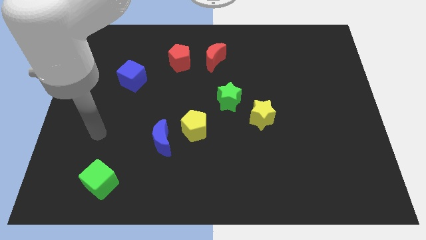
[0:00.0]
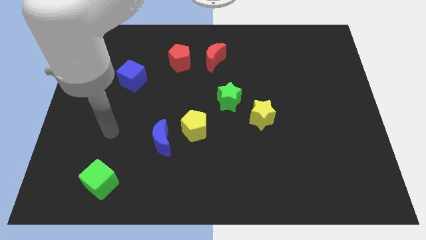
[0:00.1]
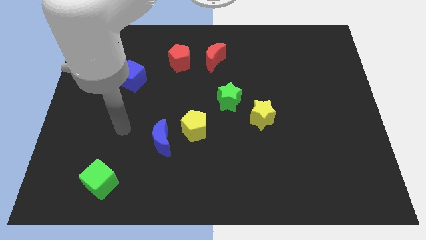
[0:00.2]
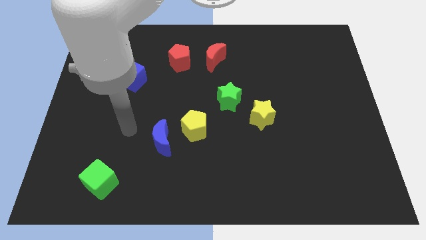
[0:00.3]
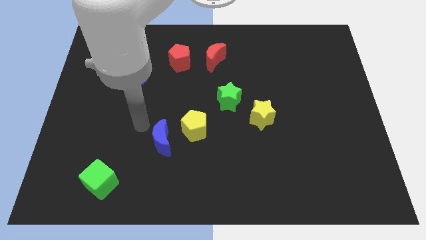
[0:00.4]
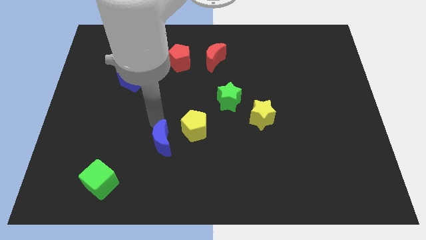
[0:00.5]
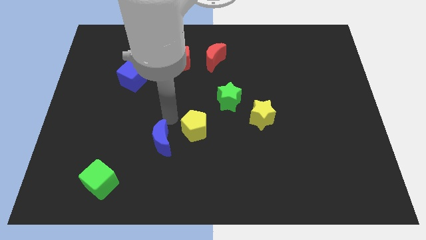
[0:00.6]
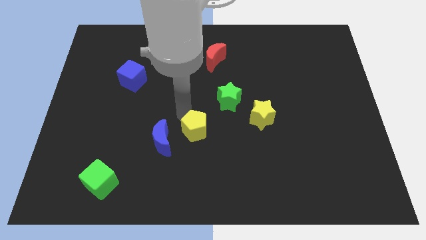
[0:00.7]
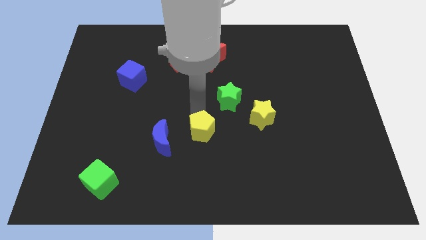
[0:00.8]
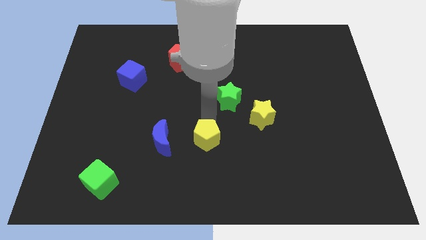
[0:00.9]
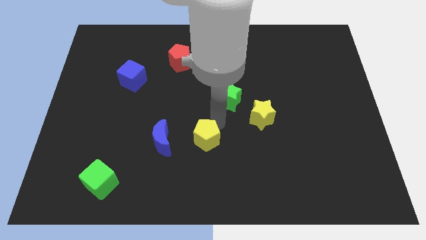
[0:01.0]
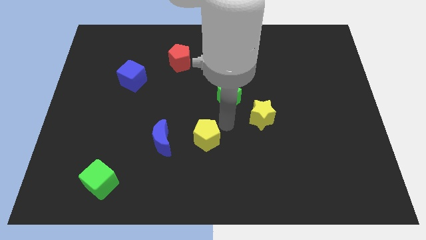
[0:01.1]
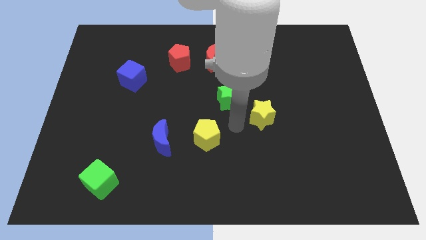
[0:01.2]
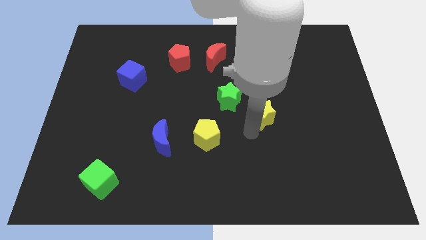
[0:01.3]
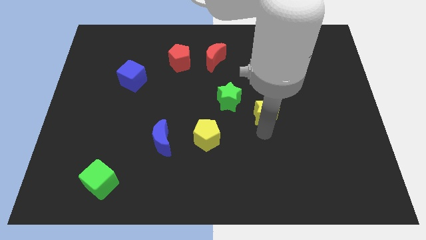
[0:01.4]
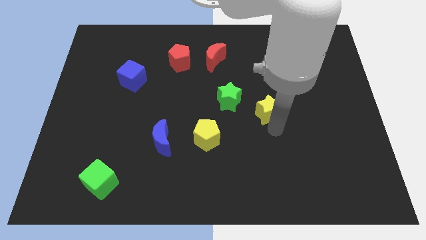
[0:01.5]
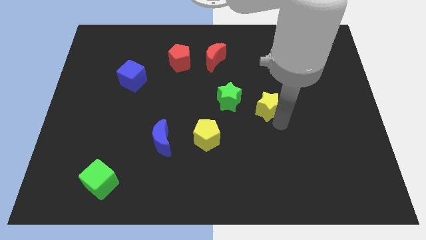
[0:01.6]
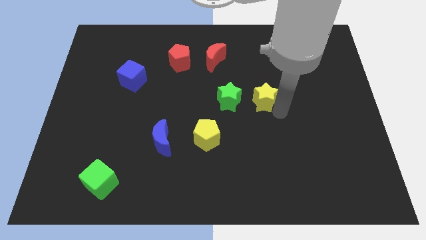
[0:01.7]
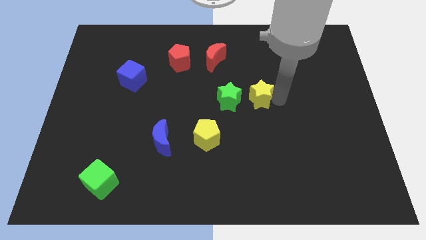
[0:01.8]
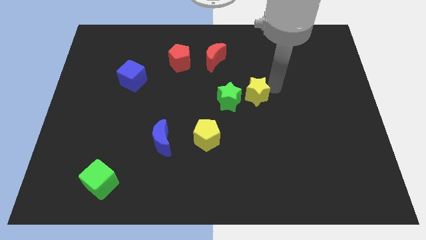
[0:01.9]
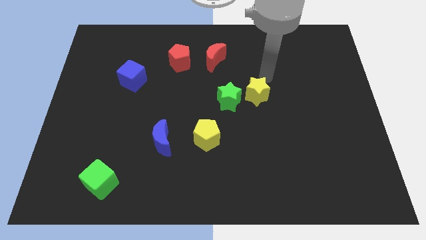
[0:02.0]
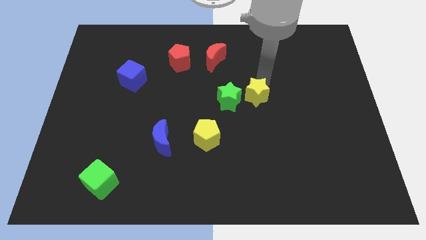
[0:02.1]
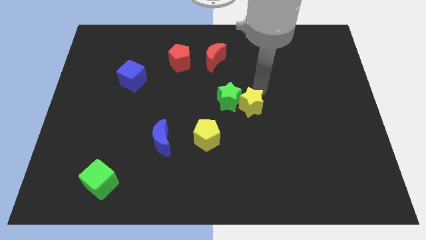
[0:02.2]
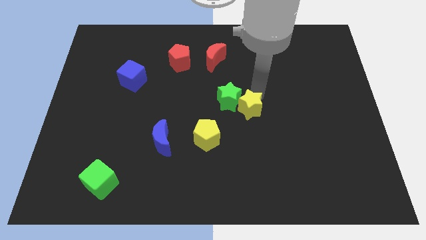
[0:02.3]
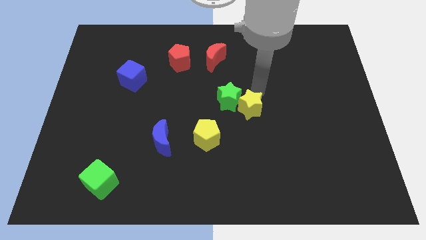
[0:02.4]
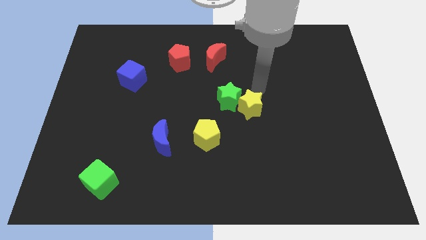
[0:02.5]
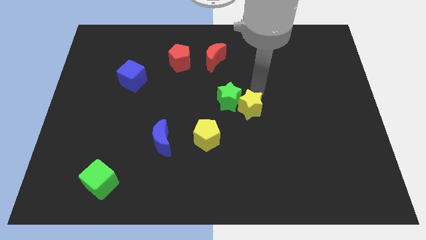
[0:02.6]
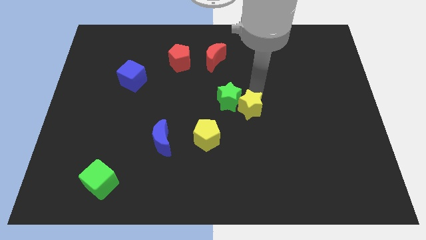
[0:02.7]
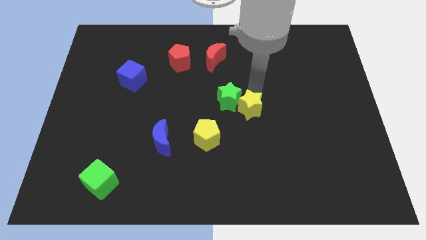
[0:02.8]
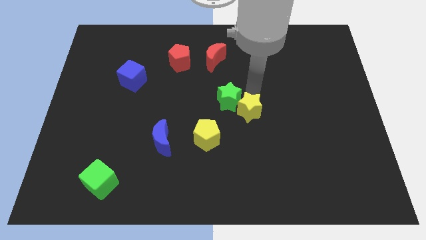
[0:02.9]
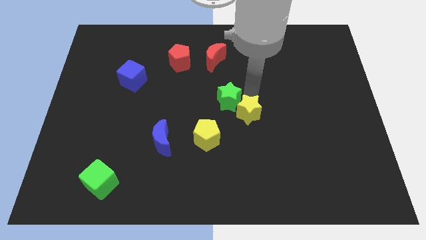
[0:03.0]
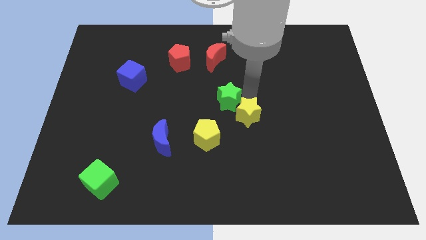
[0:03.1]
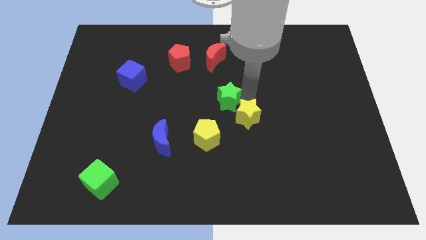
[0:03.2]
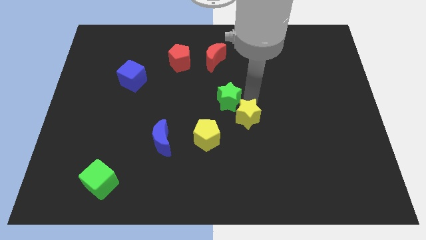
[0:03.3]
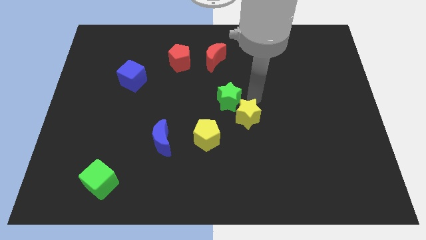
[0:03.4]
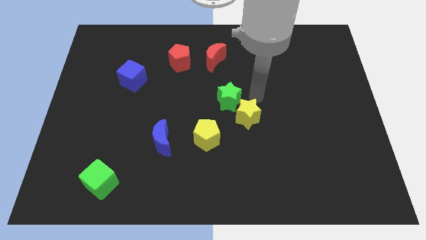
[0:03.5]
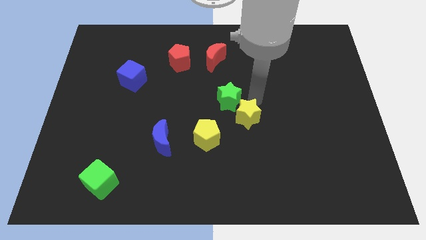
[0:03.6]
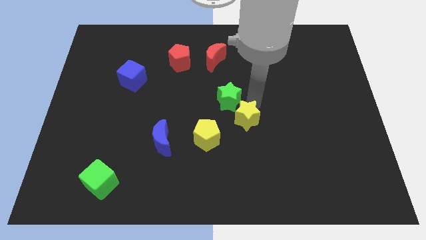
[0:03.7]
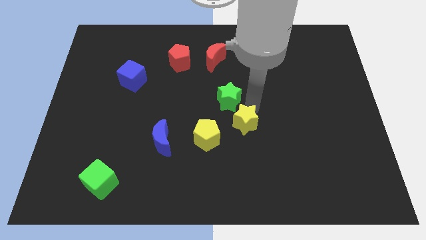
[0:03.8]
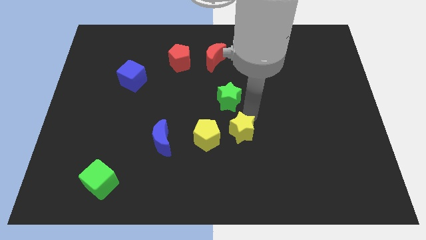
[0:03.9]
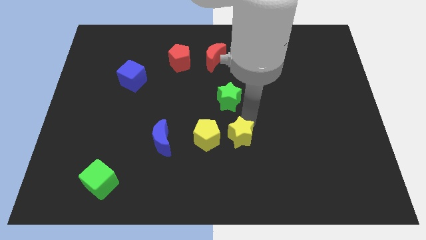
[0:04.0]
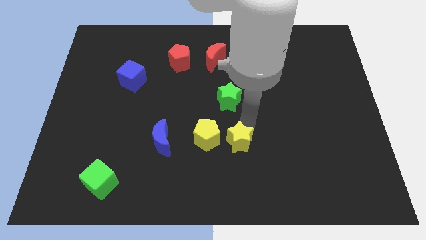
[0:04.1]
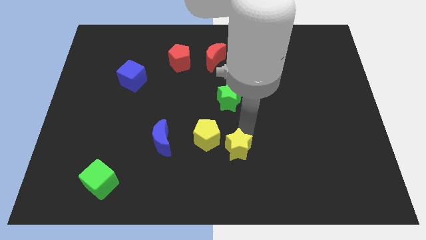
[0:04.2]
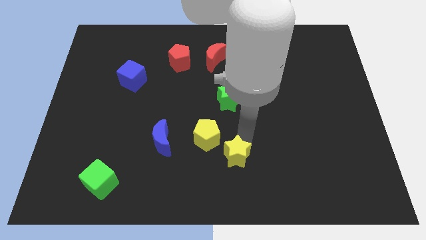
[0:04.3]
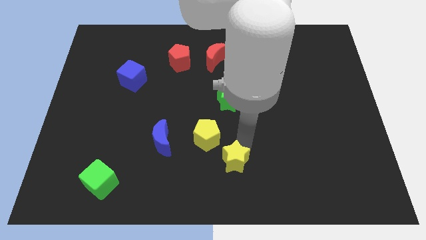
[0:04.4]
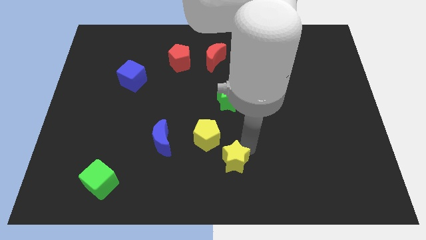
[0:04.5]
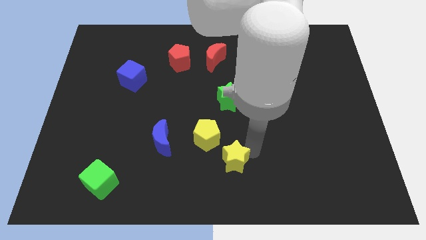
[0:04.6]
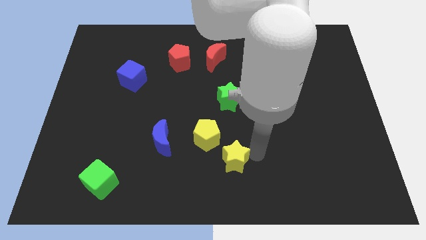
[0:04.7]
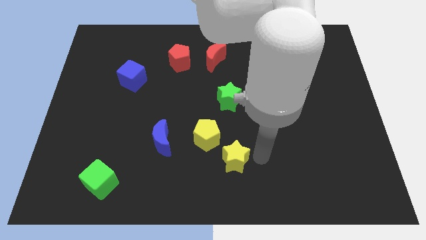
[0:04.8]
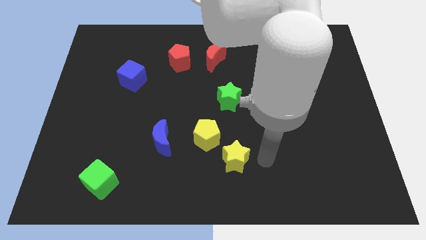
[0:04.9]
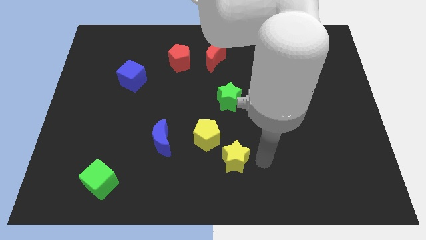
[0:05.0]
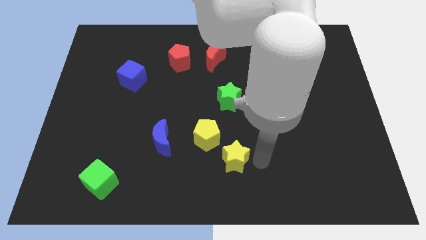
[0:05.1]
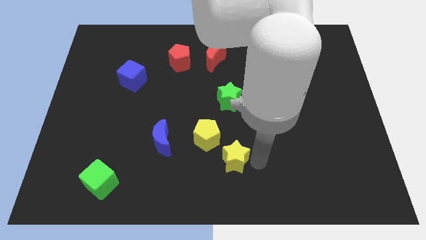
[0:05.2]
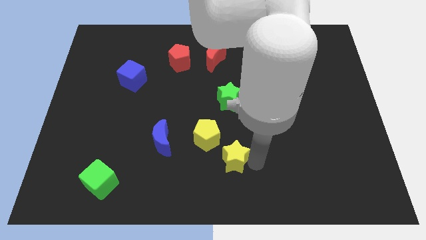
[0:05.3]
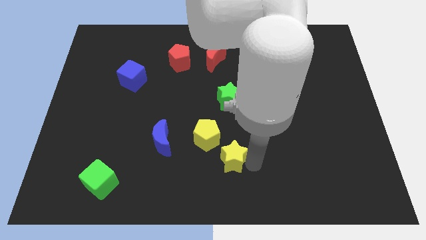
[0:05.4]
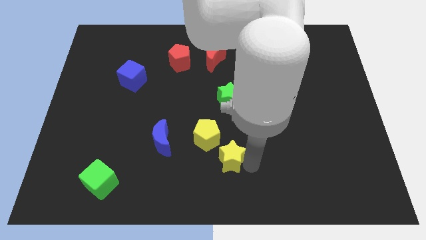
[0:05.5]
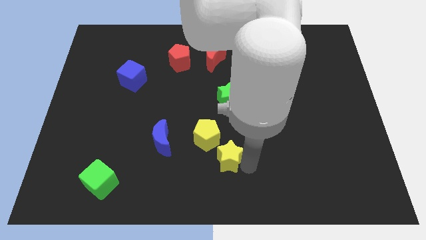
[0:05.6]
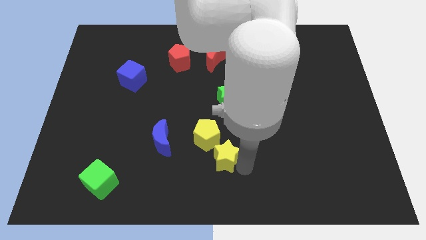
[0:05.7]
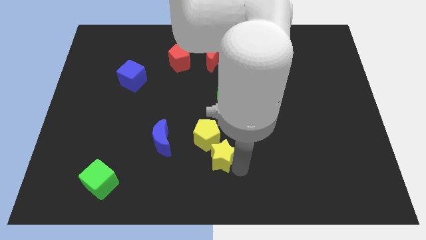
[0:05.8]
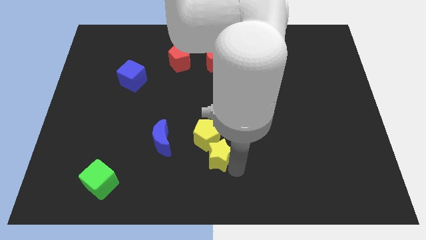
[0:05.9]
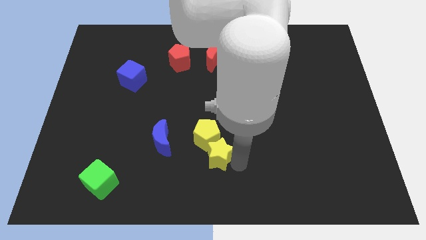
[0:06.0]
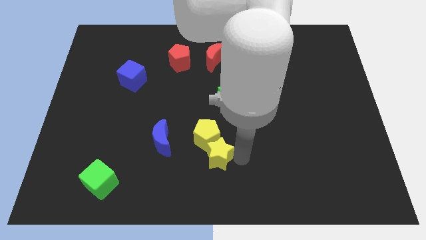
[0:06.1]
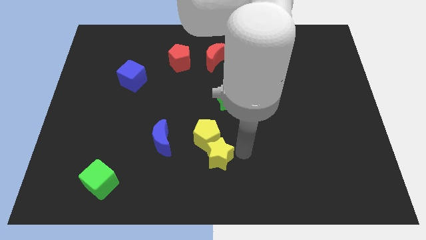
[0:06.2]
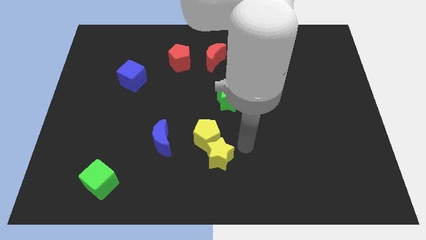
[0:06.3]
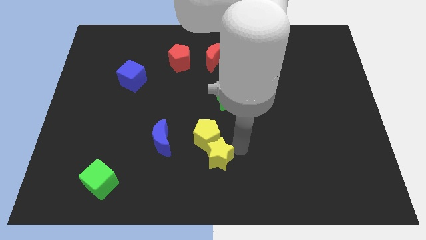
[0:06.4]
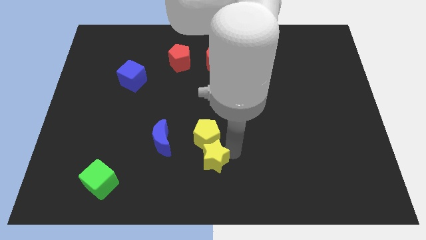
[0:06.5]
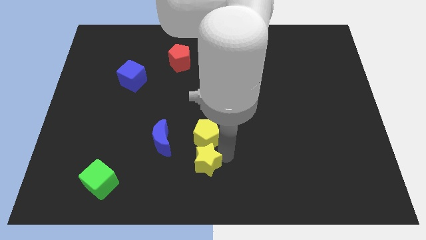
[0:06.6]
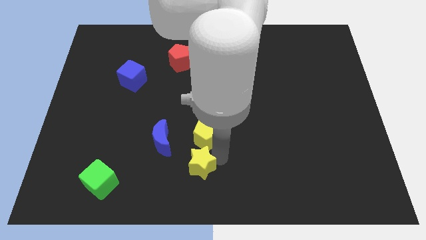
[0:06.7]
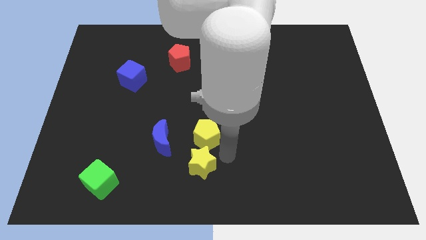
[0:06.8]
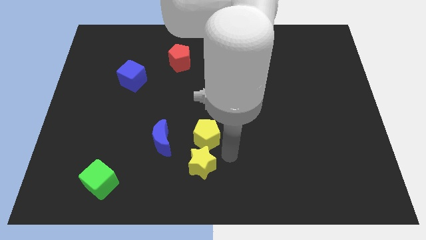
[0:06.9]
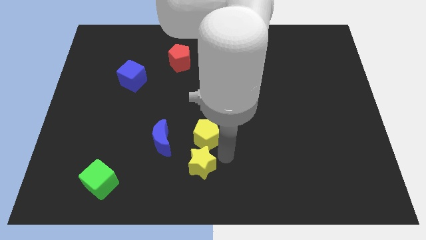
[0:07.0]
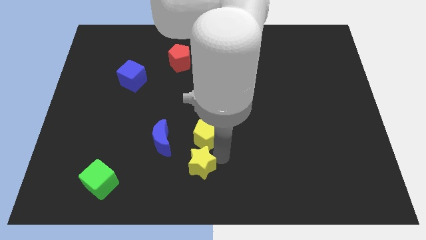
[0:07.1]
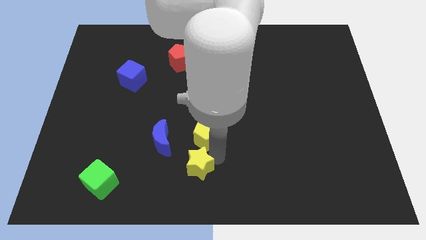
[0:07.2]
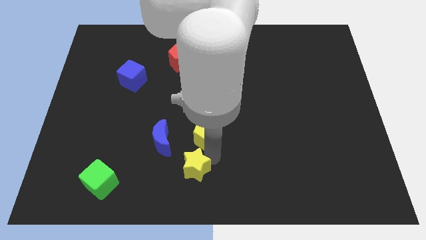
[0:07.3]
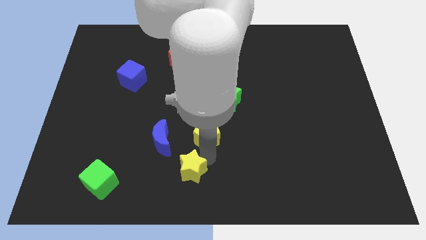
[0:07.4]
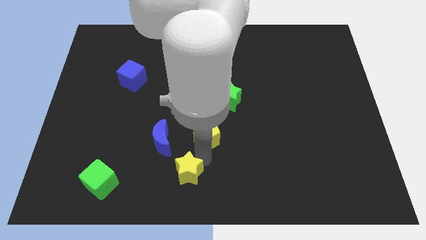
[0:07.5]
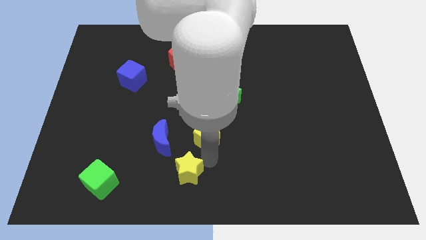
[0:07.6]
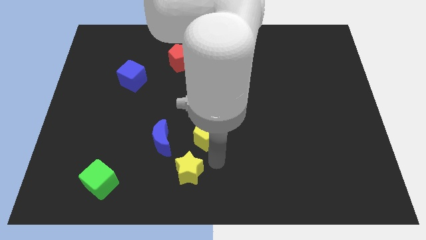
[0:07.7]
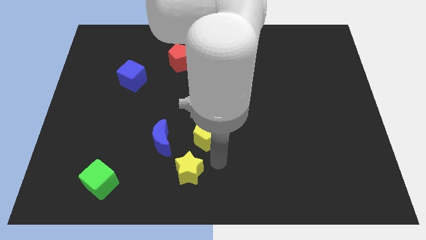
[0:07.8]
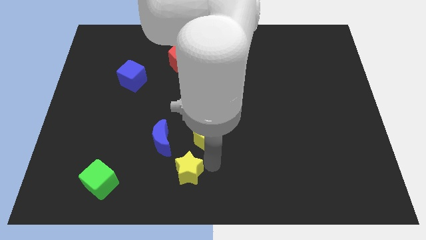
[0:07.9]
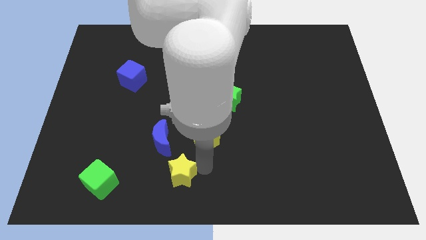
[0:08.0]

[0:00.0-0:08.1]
put the yellow star below the blue moon
